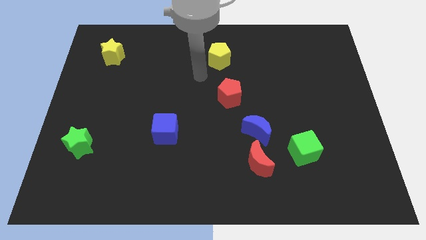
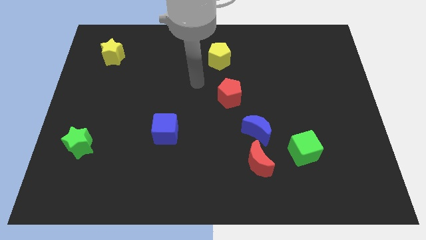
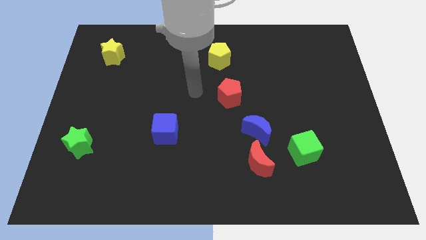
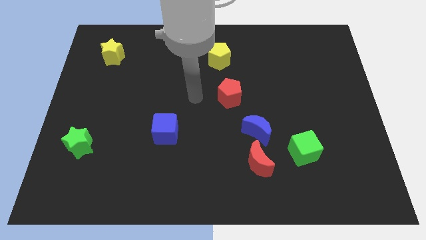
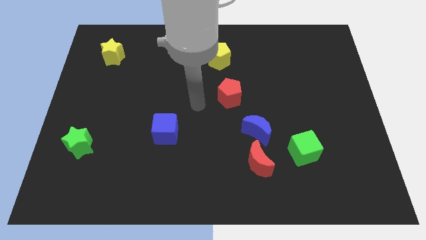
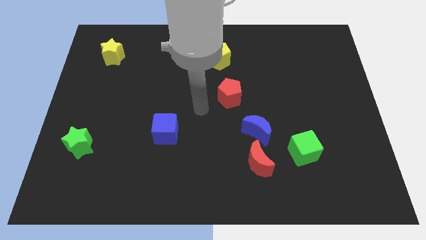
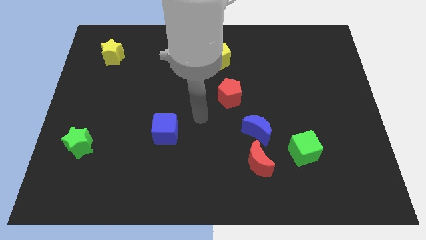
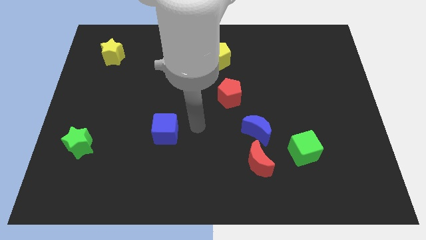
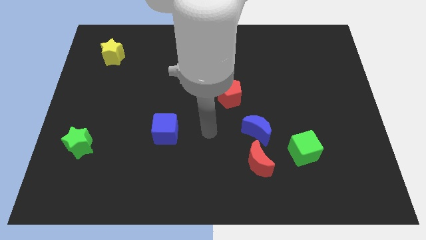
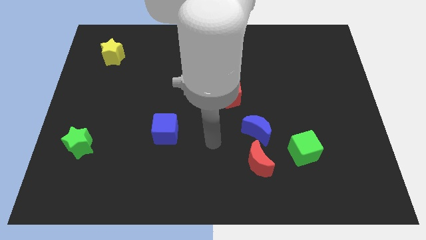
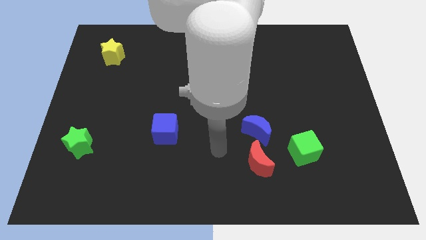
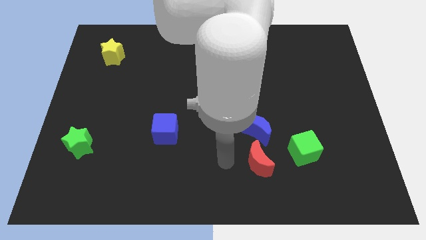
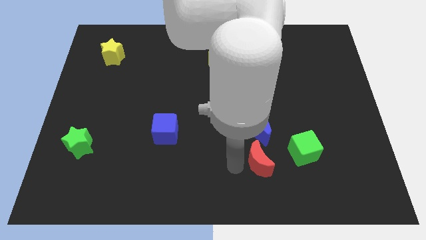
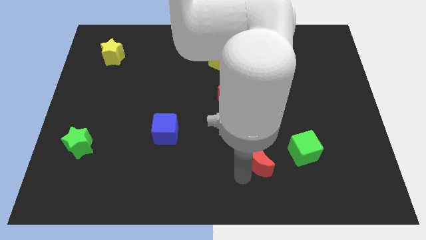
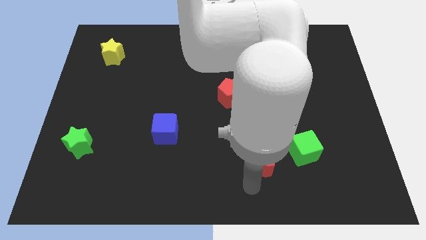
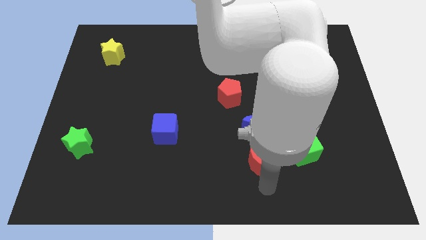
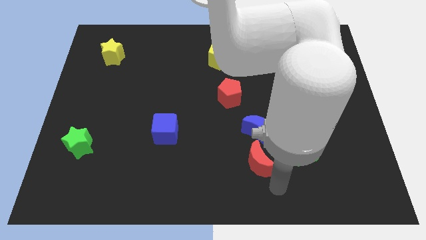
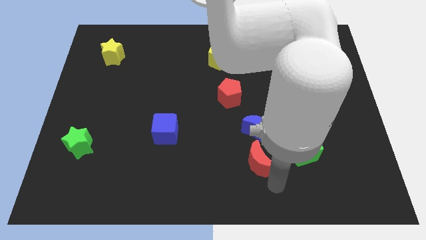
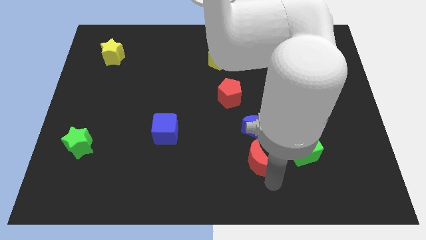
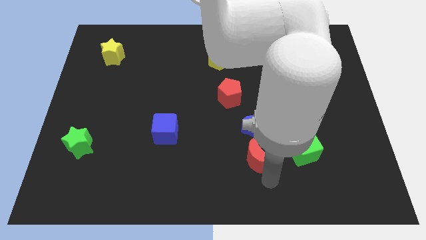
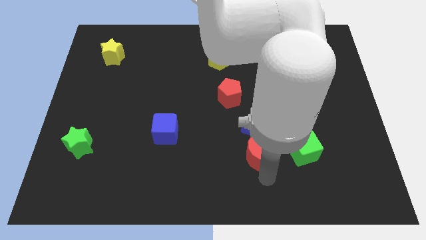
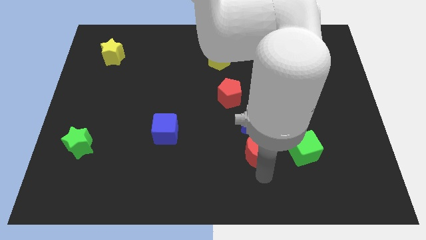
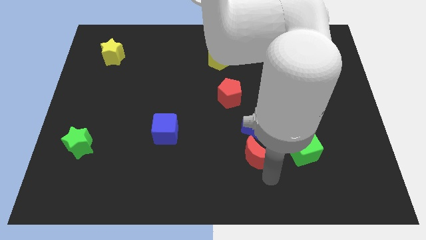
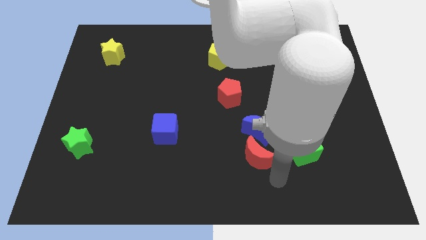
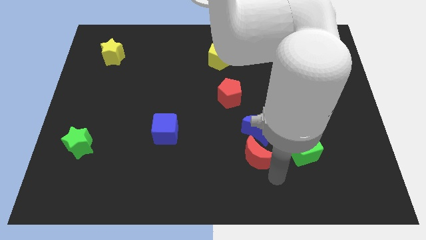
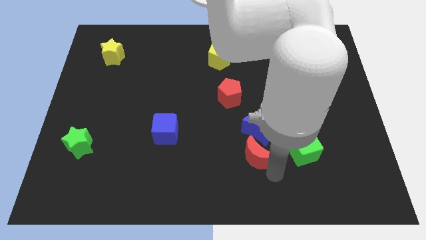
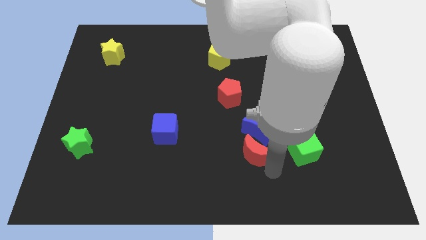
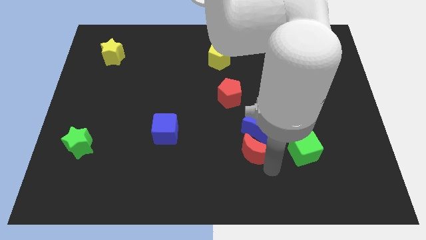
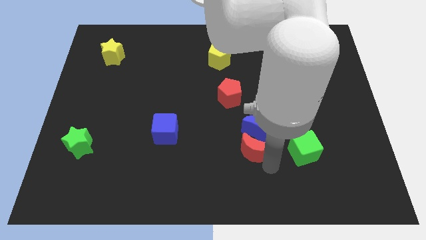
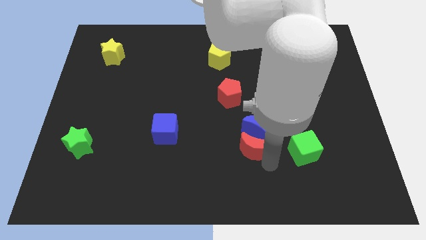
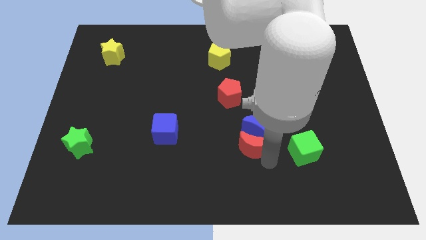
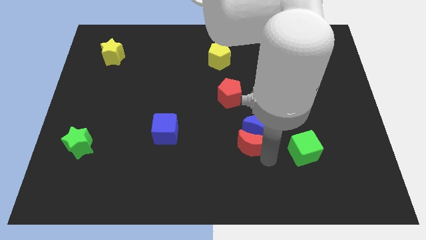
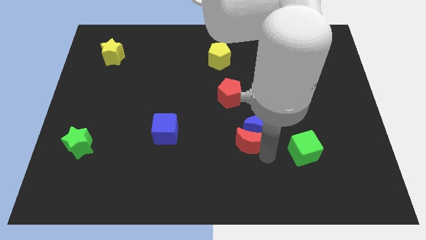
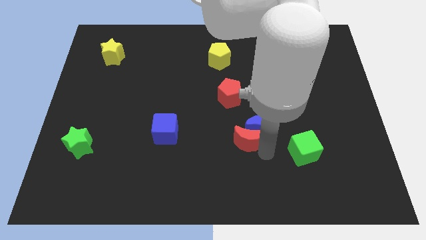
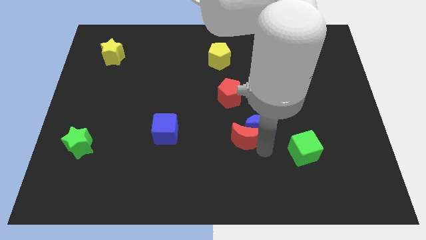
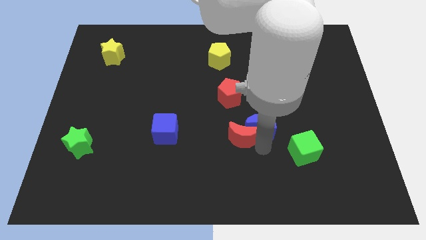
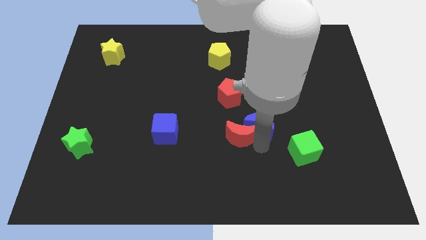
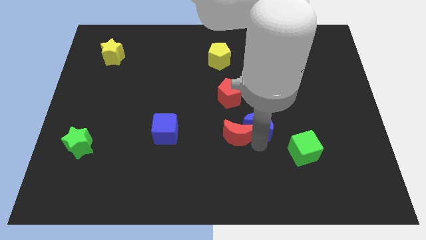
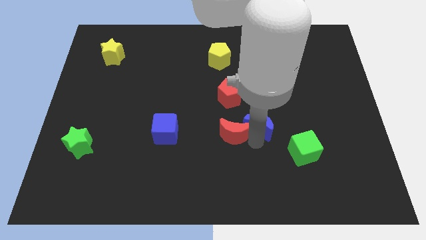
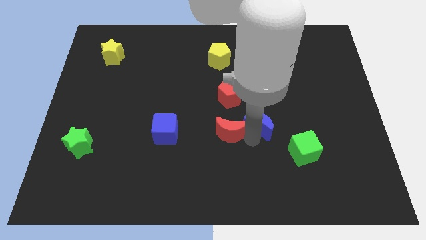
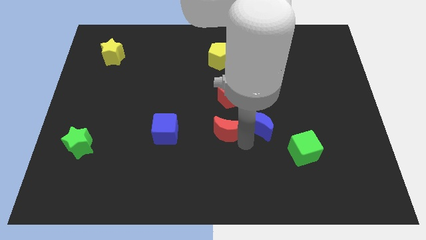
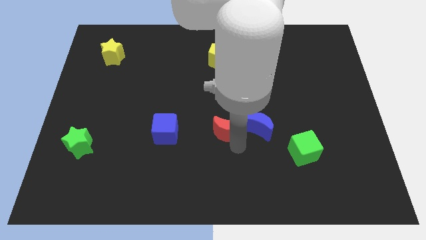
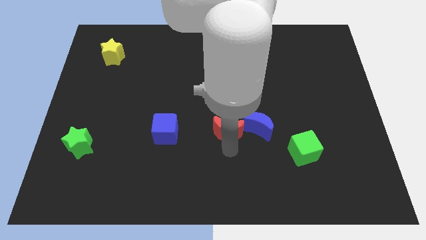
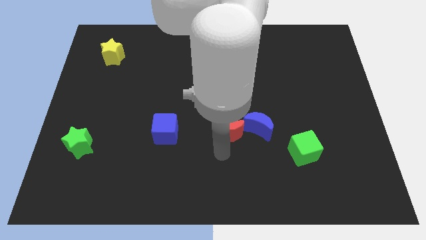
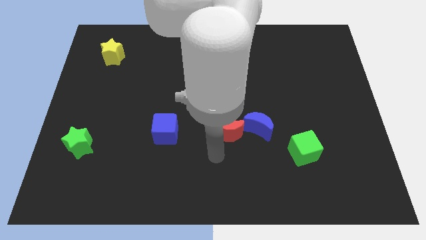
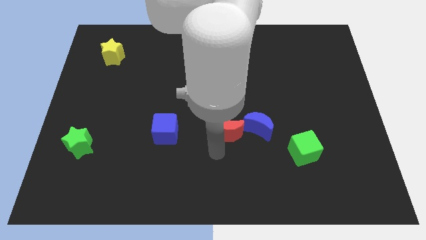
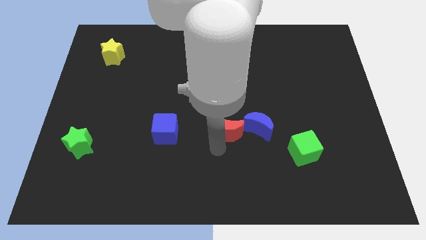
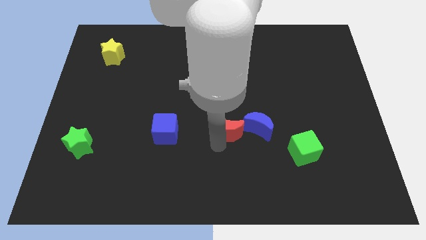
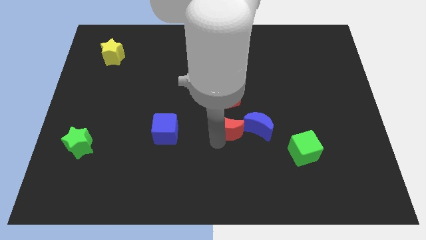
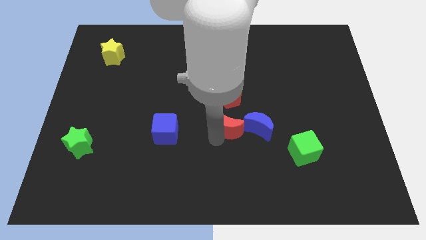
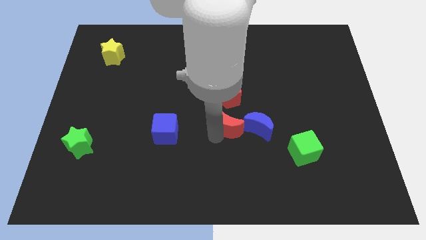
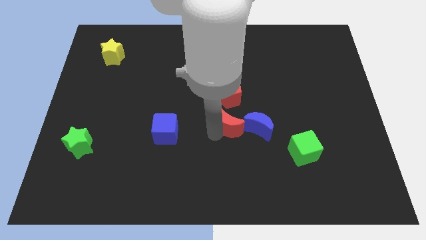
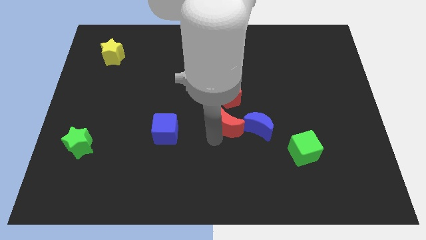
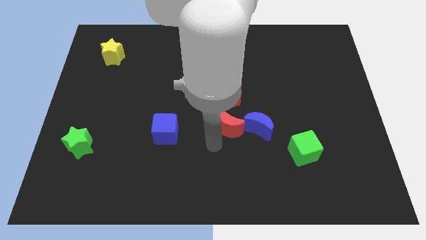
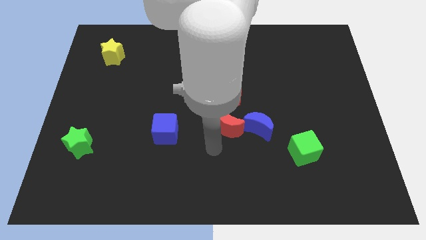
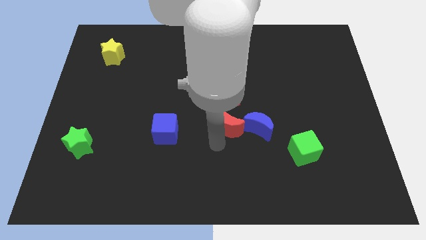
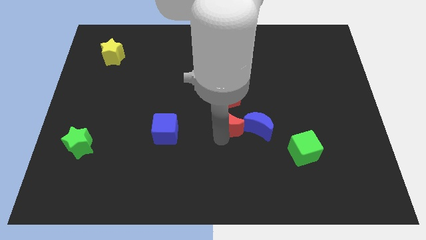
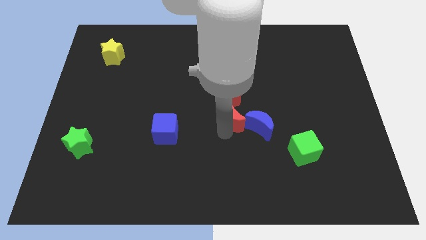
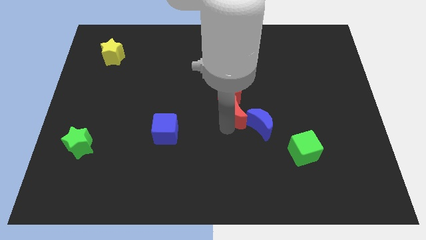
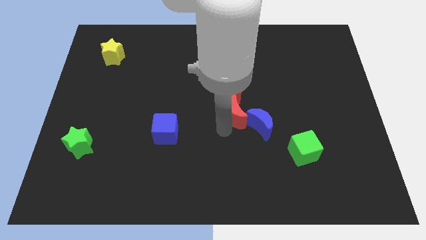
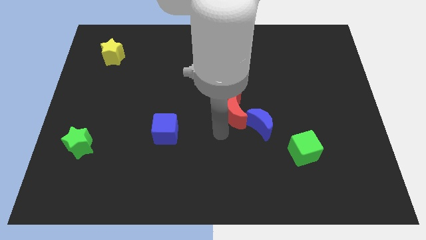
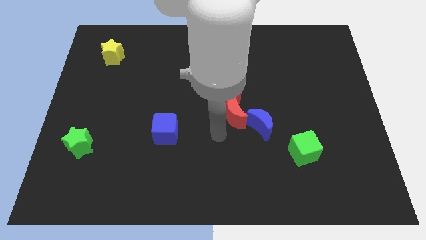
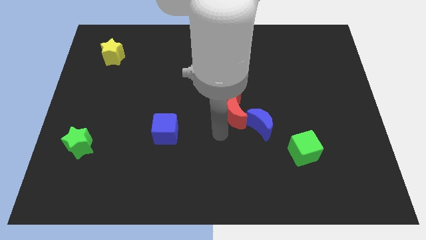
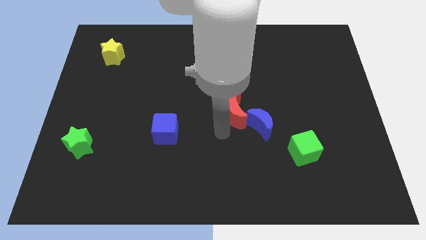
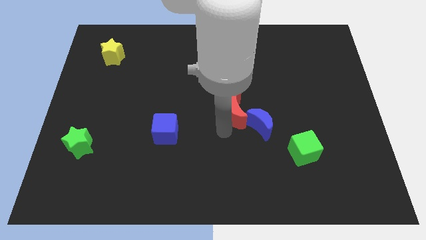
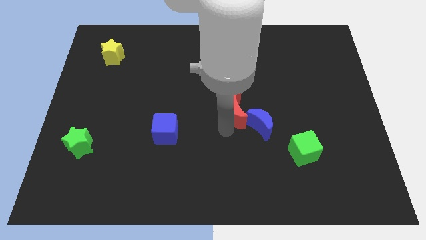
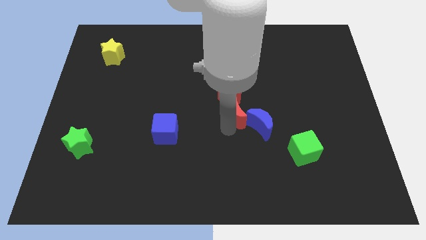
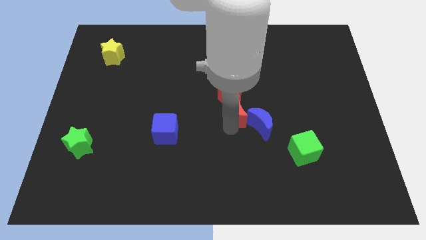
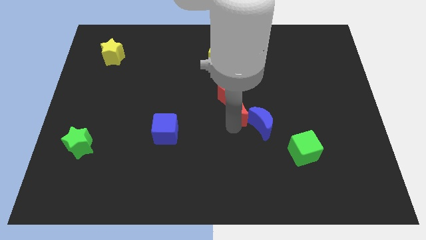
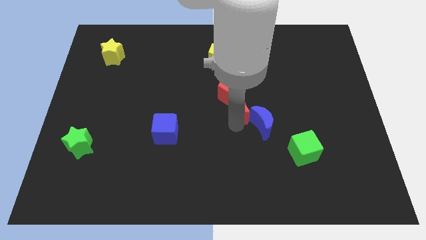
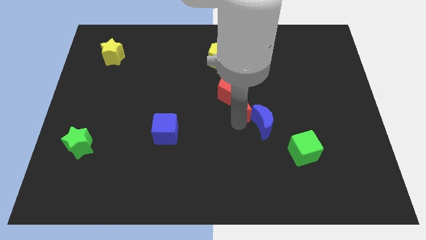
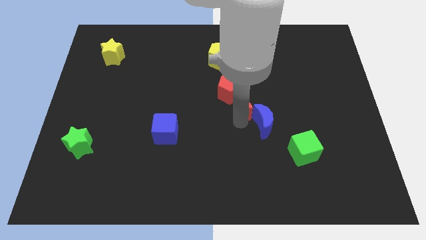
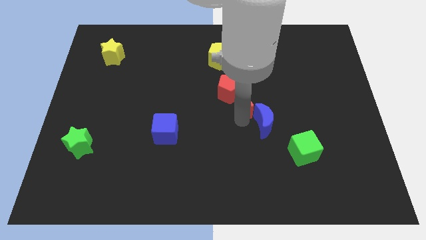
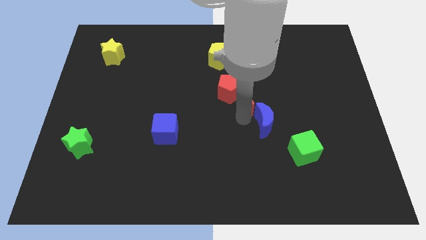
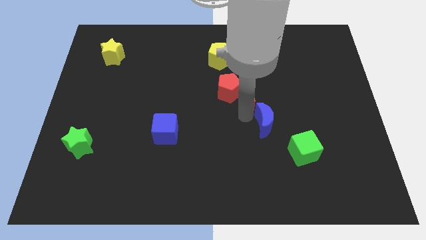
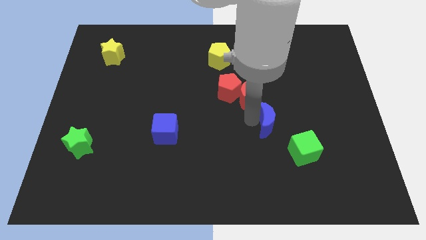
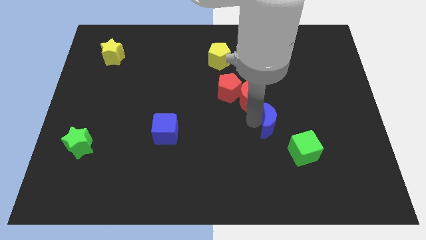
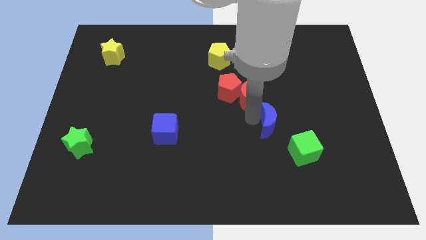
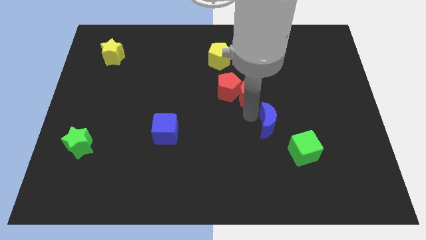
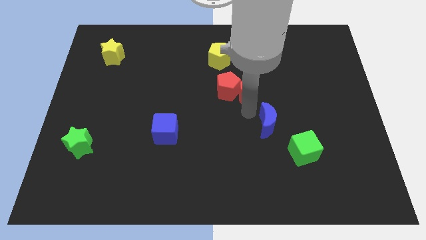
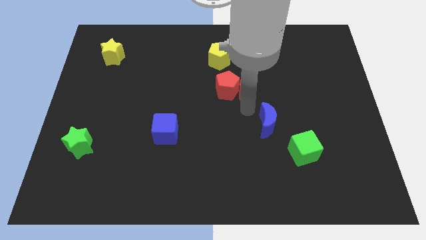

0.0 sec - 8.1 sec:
slide the red moon upwards
